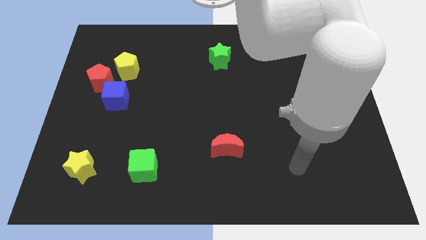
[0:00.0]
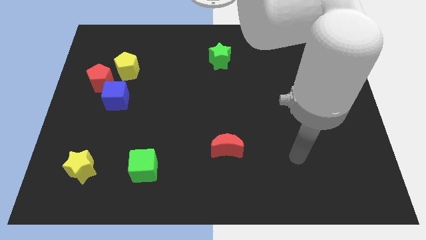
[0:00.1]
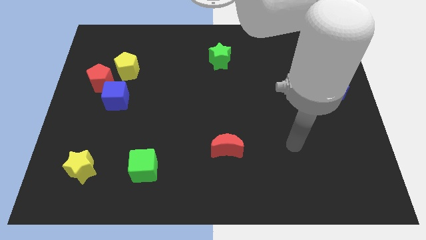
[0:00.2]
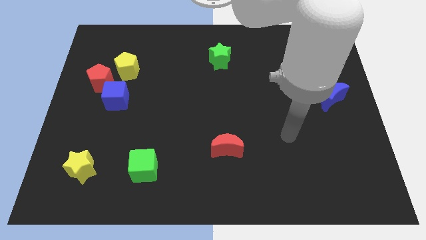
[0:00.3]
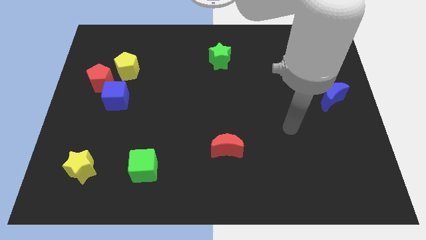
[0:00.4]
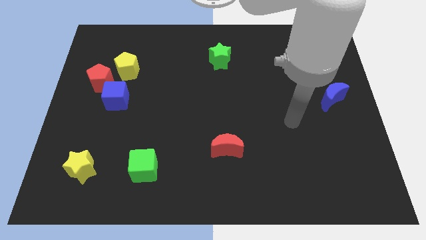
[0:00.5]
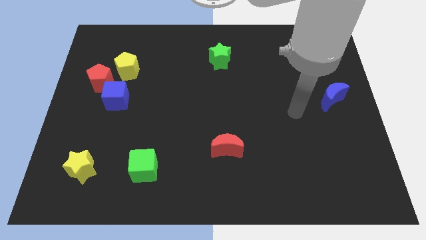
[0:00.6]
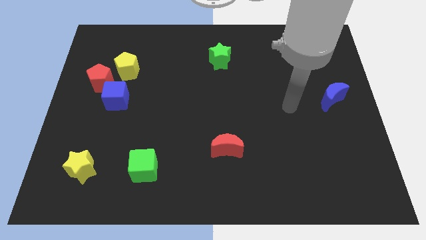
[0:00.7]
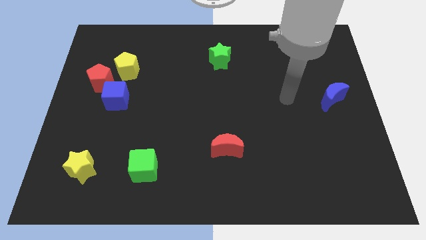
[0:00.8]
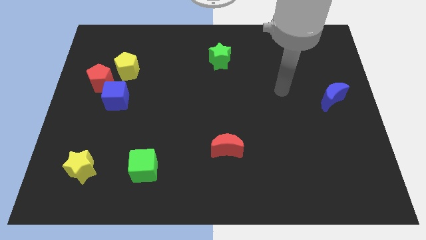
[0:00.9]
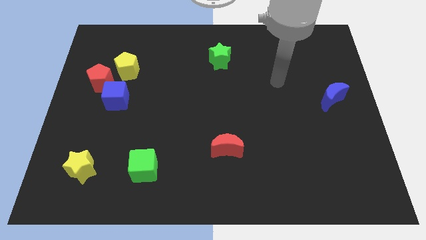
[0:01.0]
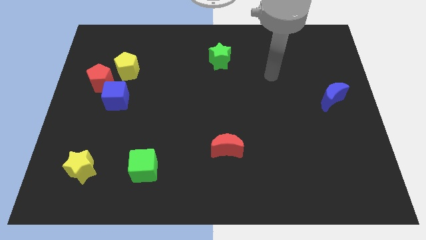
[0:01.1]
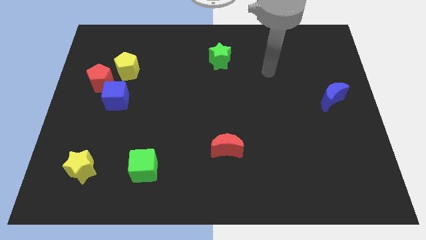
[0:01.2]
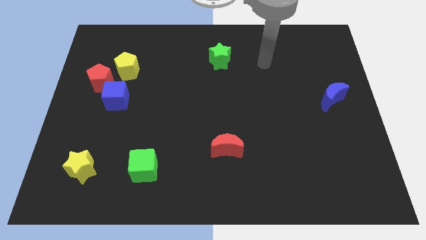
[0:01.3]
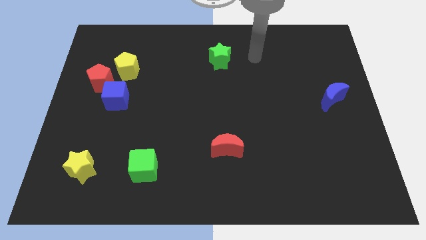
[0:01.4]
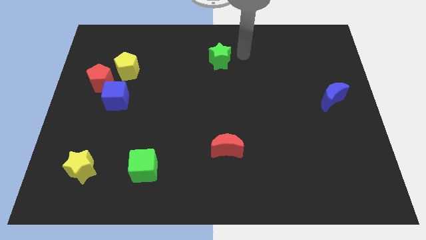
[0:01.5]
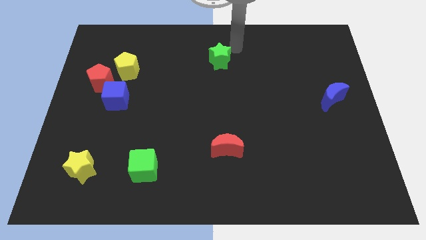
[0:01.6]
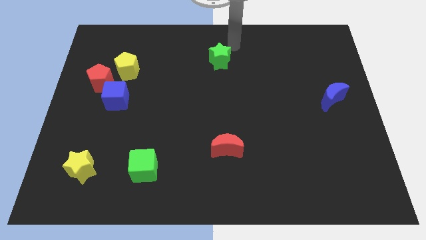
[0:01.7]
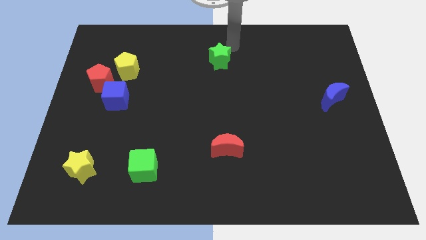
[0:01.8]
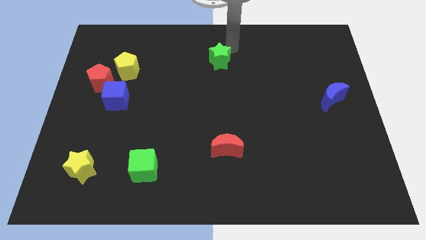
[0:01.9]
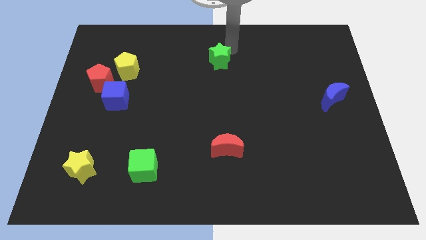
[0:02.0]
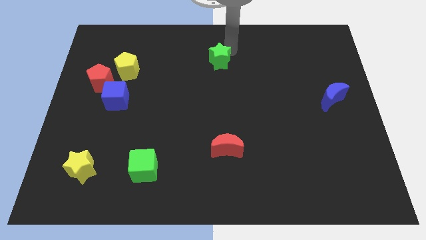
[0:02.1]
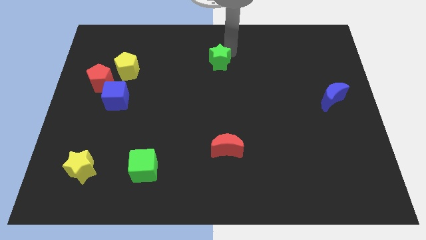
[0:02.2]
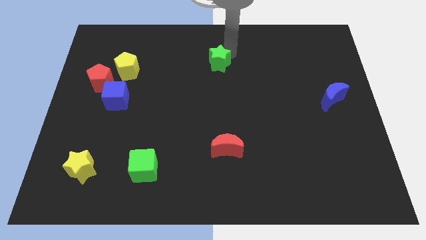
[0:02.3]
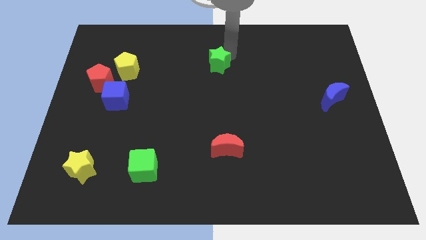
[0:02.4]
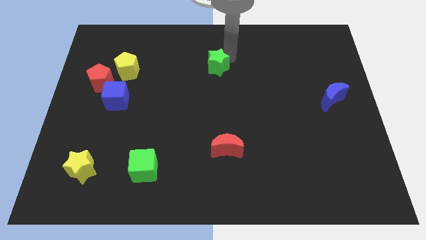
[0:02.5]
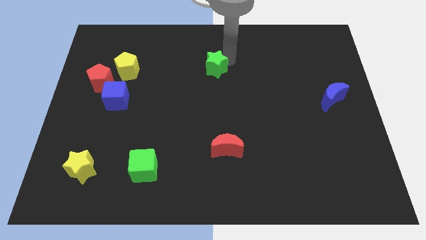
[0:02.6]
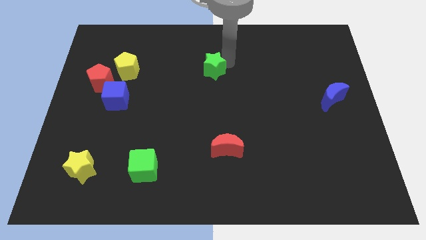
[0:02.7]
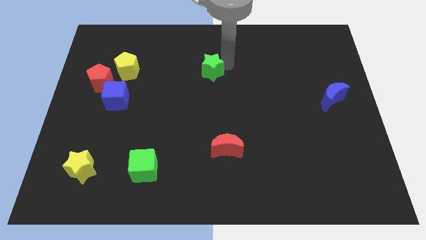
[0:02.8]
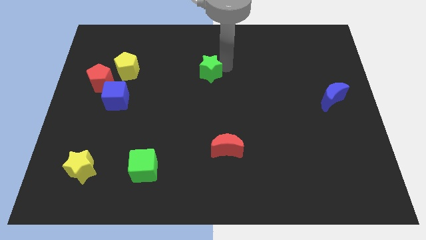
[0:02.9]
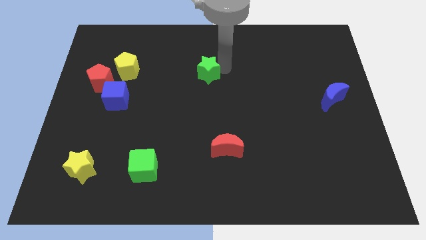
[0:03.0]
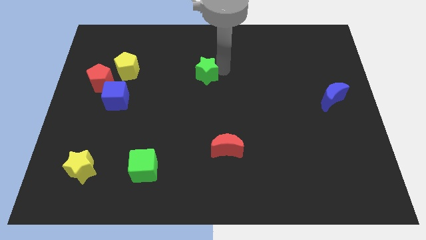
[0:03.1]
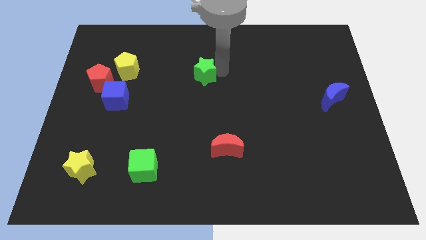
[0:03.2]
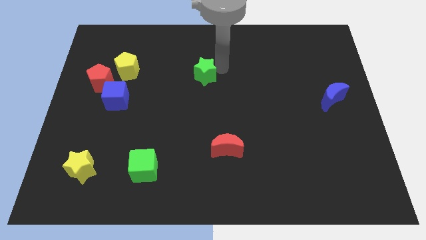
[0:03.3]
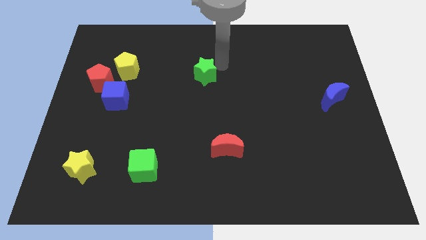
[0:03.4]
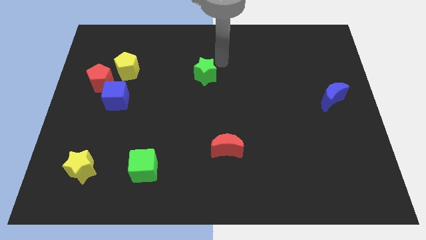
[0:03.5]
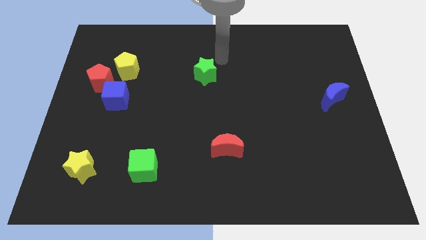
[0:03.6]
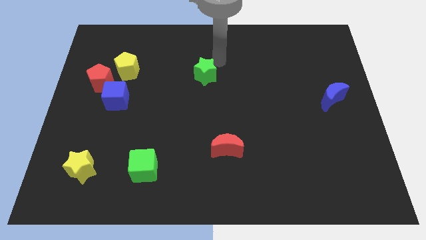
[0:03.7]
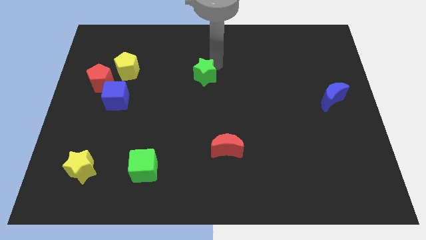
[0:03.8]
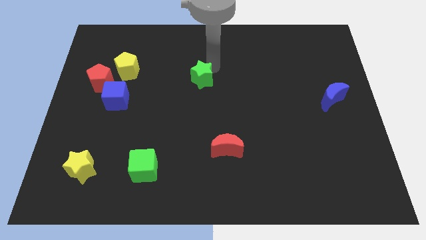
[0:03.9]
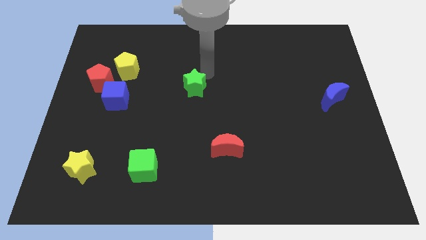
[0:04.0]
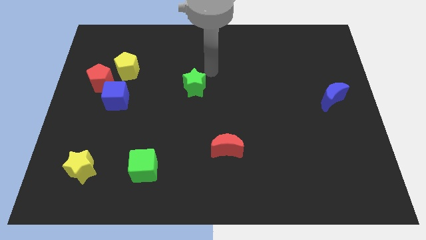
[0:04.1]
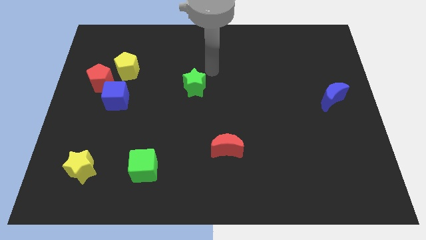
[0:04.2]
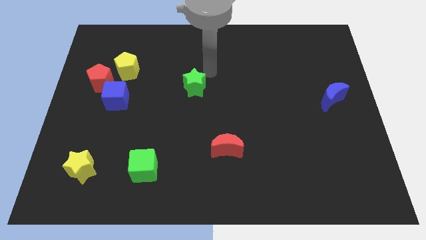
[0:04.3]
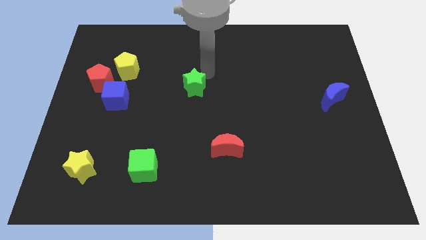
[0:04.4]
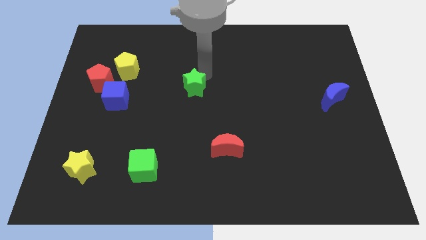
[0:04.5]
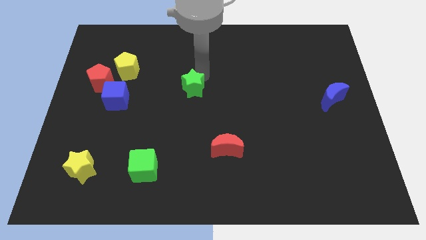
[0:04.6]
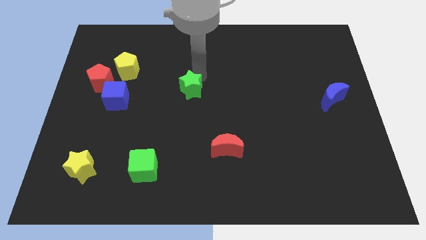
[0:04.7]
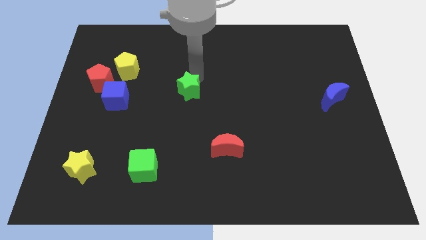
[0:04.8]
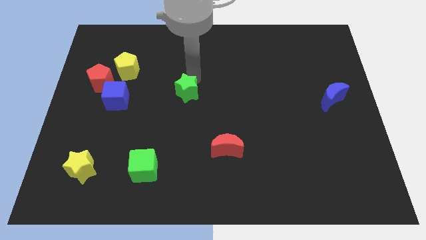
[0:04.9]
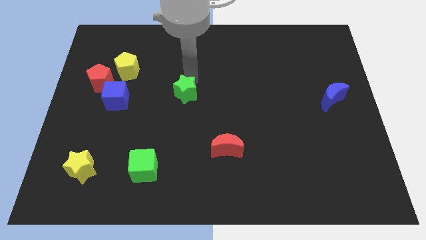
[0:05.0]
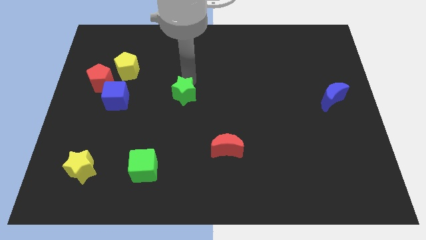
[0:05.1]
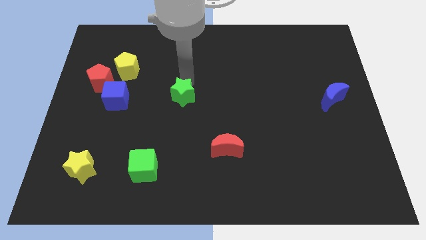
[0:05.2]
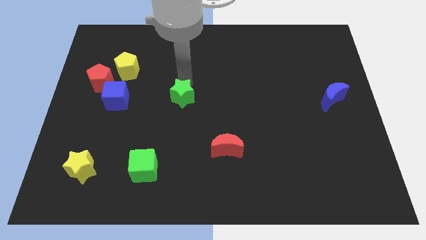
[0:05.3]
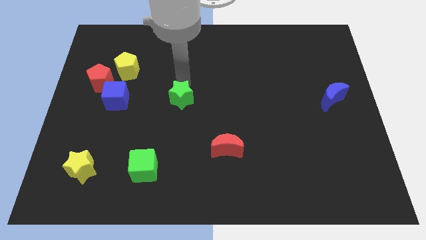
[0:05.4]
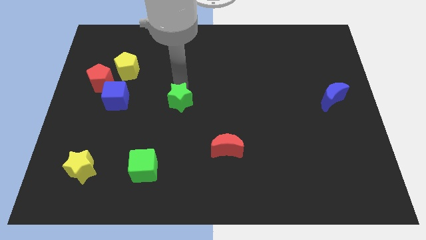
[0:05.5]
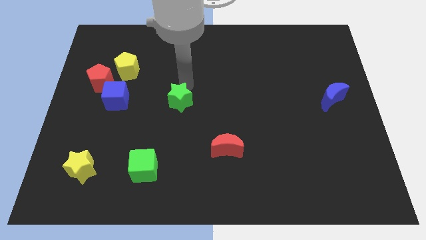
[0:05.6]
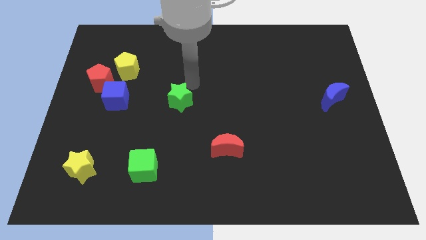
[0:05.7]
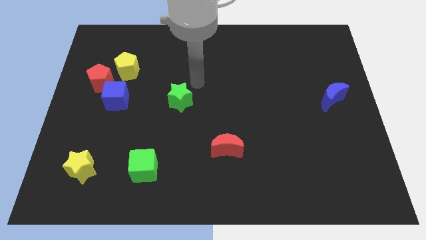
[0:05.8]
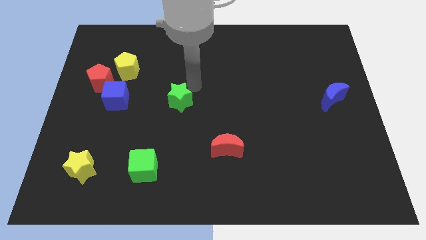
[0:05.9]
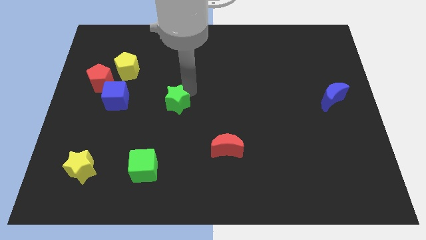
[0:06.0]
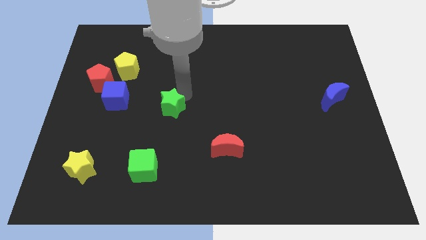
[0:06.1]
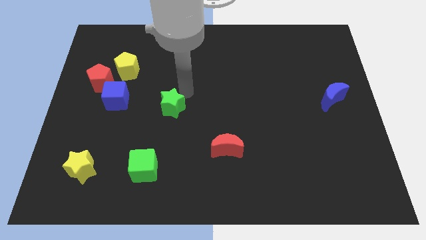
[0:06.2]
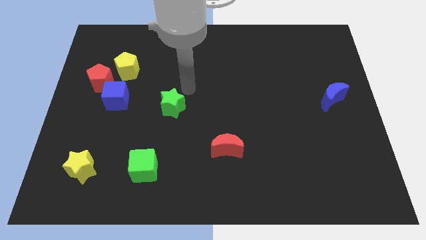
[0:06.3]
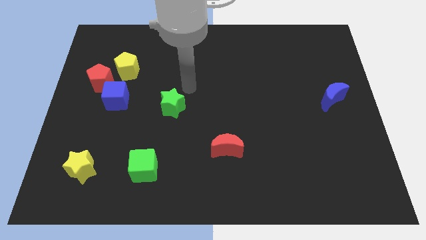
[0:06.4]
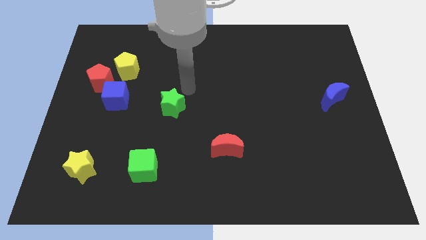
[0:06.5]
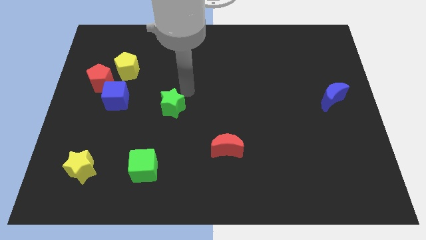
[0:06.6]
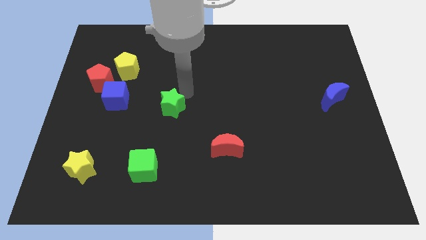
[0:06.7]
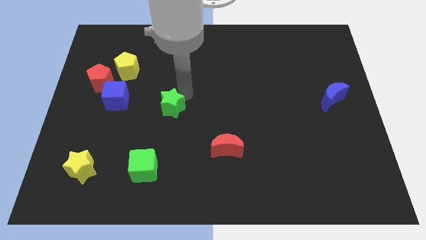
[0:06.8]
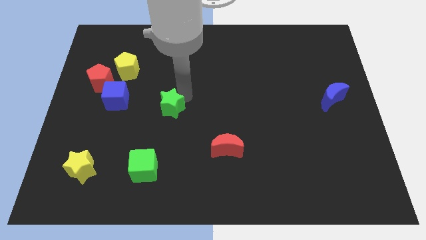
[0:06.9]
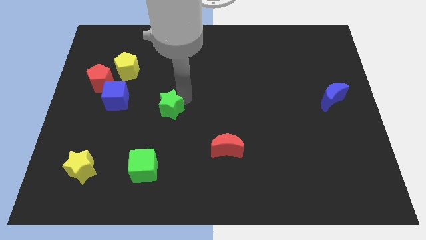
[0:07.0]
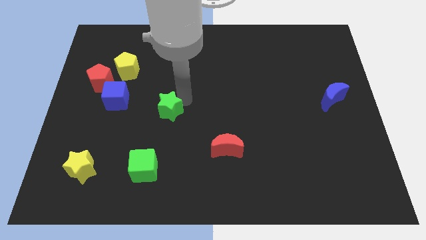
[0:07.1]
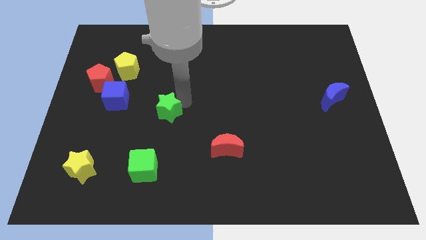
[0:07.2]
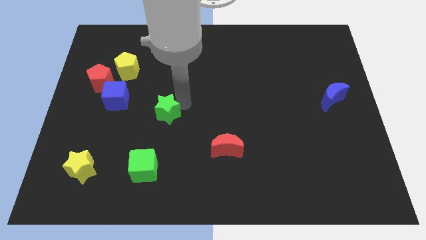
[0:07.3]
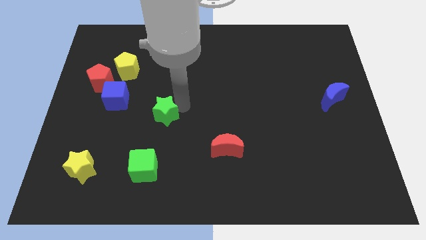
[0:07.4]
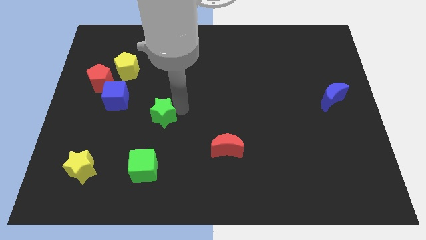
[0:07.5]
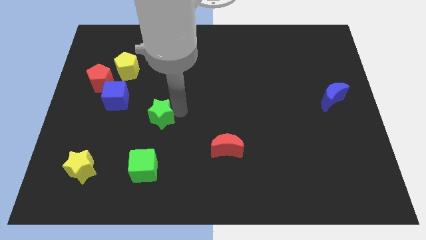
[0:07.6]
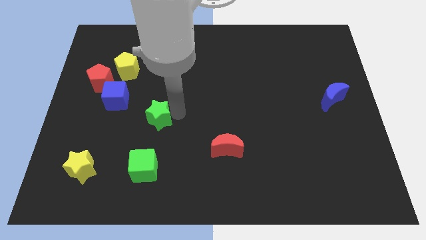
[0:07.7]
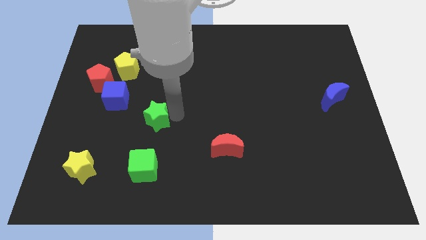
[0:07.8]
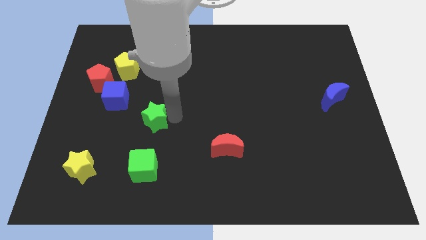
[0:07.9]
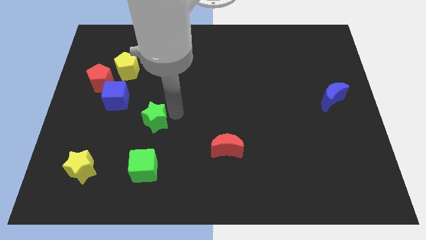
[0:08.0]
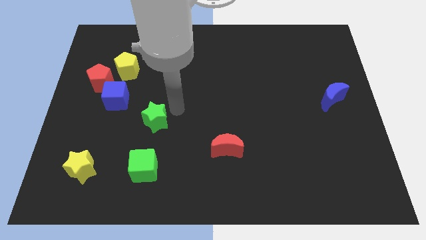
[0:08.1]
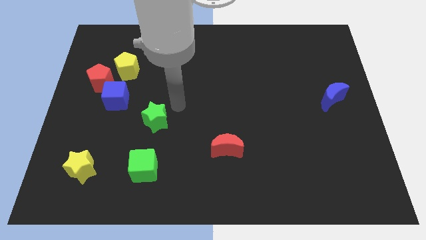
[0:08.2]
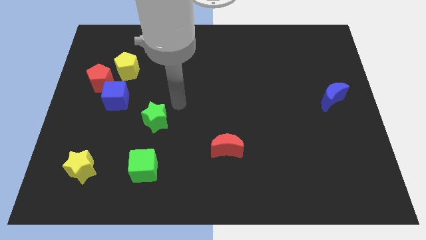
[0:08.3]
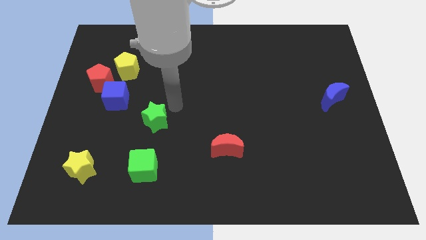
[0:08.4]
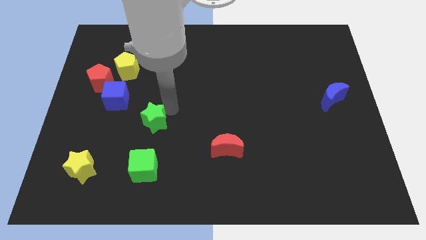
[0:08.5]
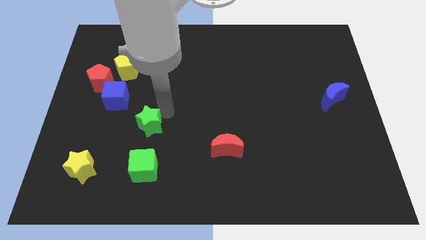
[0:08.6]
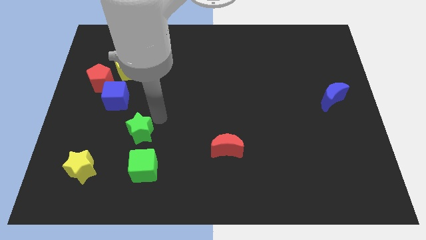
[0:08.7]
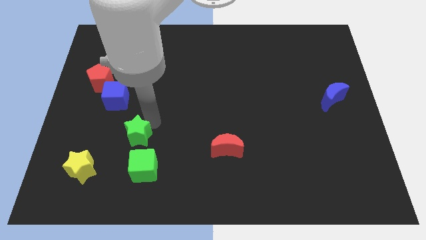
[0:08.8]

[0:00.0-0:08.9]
slide the green star to the top left of the green cube
